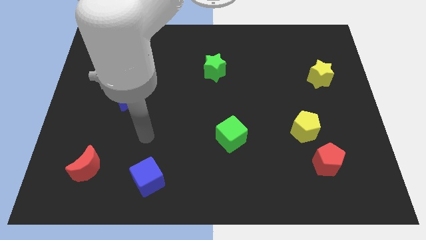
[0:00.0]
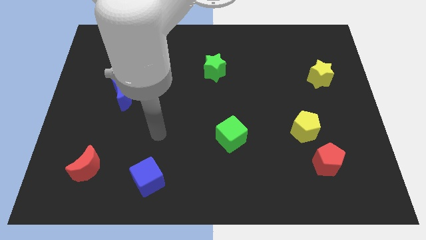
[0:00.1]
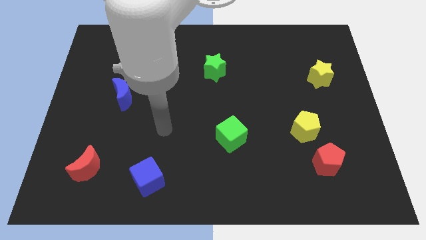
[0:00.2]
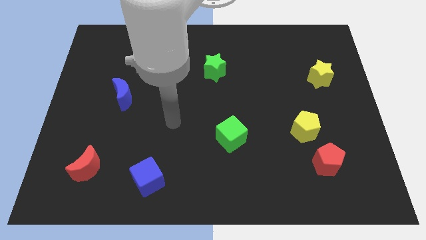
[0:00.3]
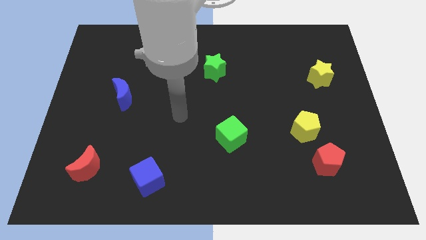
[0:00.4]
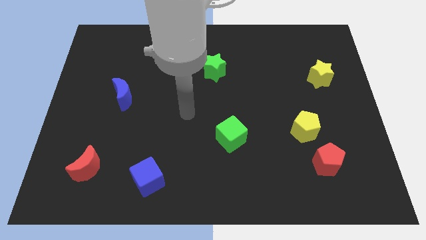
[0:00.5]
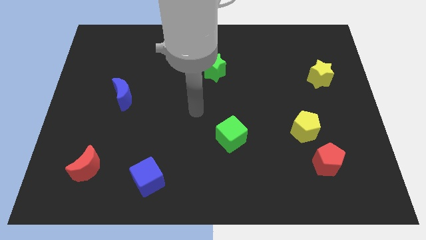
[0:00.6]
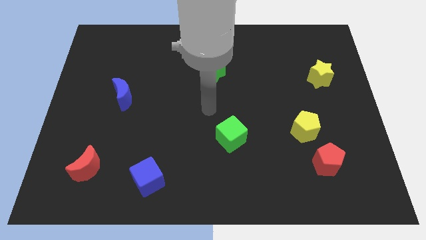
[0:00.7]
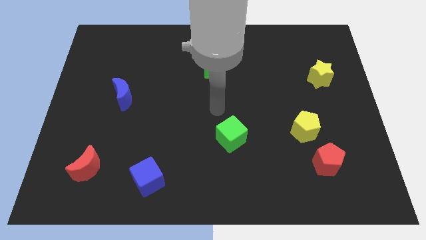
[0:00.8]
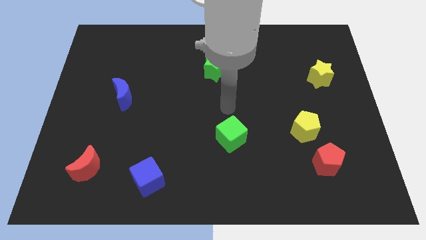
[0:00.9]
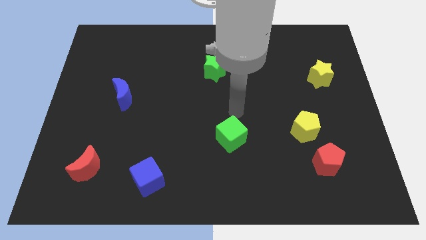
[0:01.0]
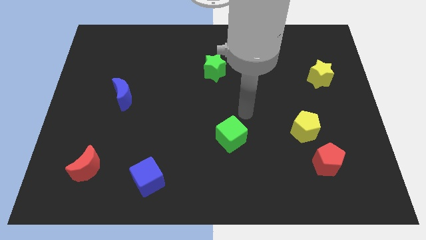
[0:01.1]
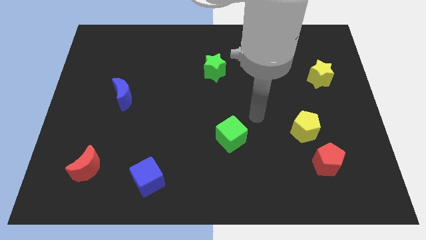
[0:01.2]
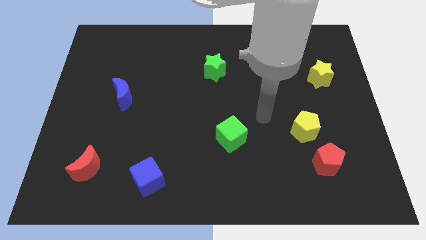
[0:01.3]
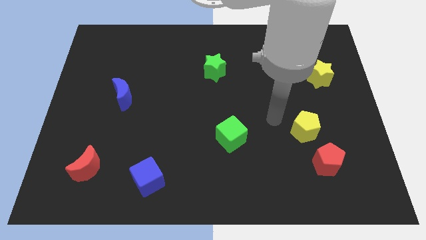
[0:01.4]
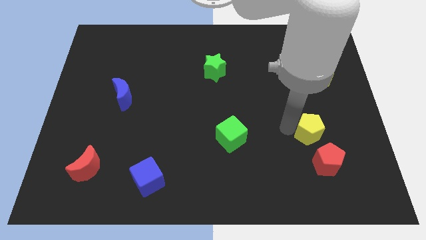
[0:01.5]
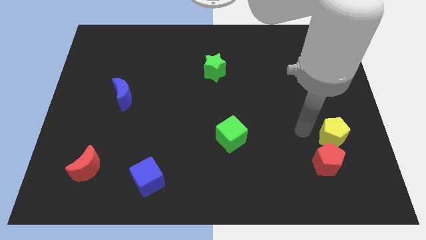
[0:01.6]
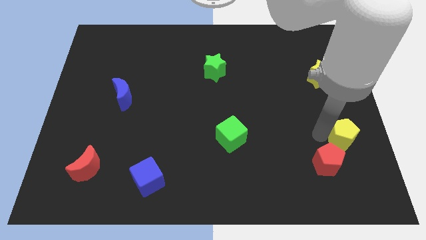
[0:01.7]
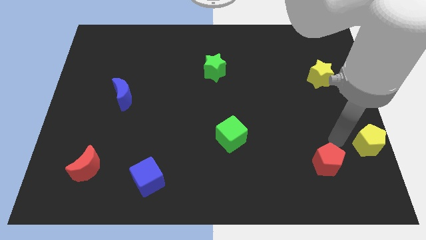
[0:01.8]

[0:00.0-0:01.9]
pull the red pentagon apart from the yellow pentagon

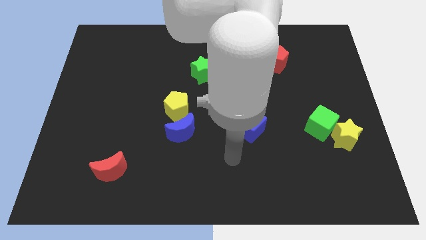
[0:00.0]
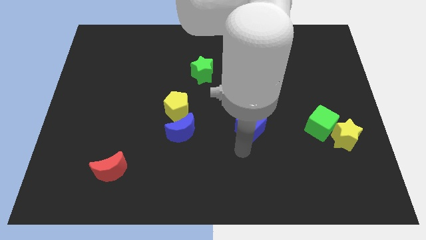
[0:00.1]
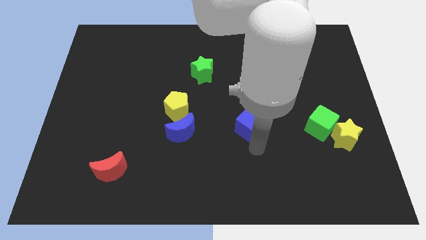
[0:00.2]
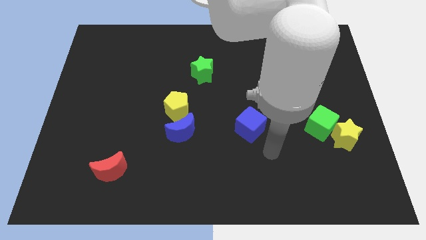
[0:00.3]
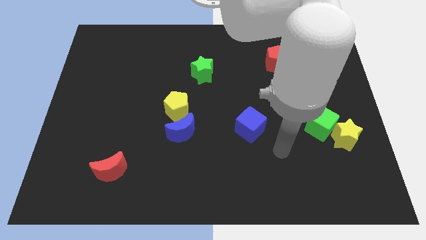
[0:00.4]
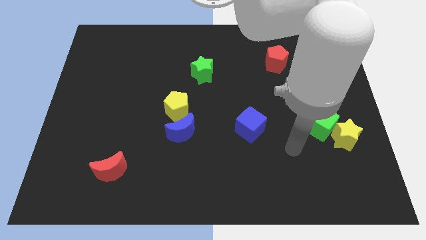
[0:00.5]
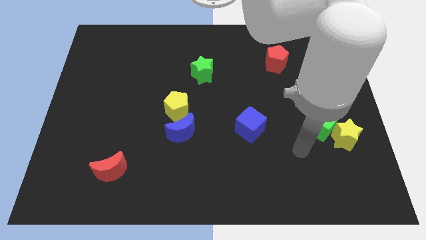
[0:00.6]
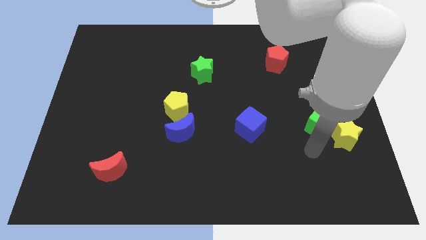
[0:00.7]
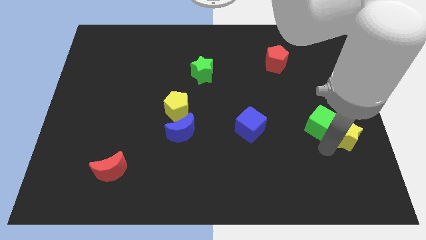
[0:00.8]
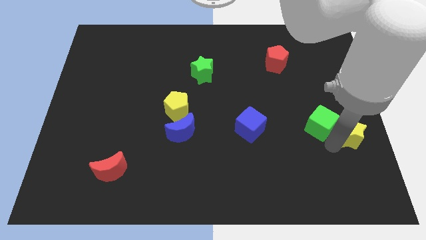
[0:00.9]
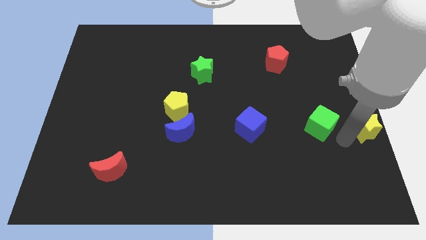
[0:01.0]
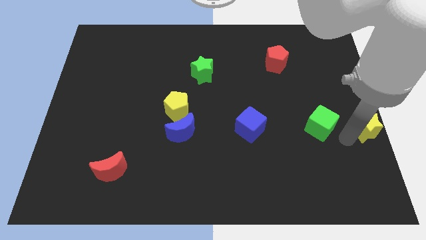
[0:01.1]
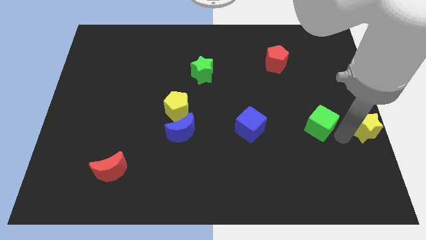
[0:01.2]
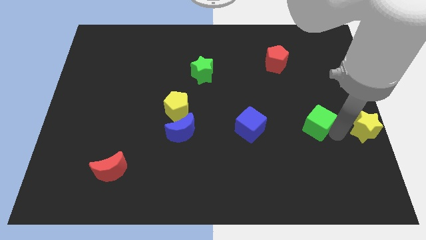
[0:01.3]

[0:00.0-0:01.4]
pull the green cube apart from the yellow star

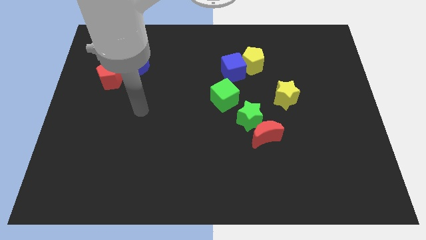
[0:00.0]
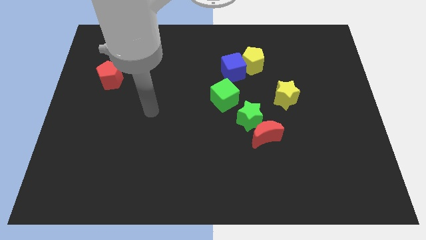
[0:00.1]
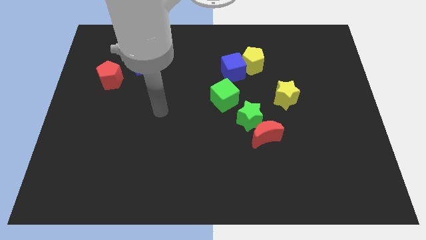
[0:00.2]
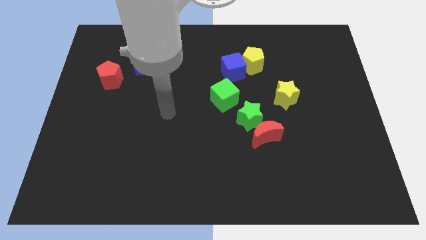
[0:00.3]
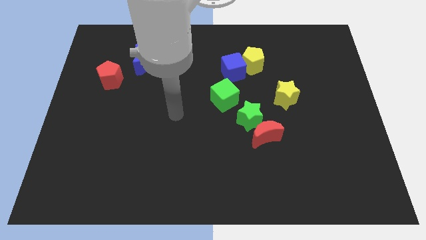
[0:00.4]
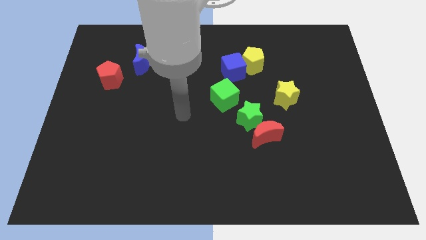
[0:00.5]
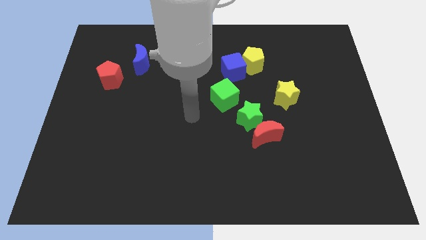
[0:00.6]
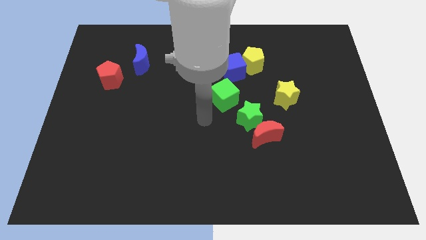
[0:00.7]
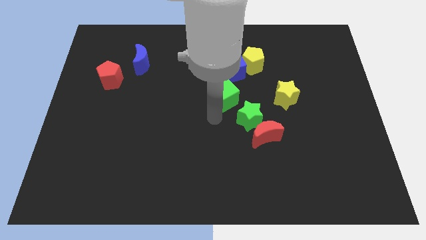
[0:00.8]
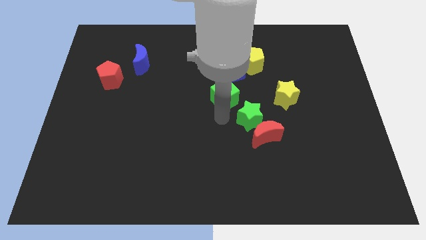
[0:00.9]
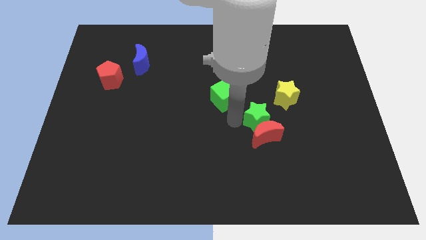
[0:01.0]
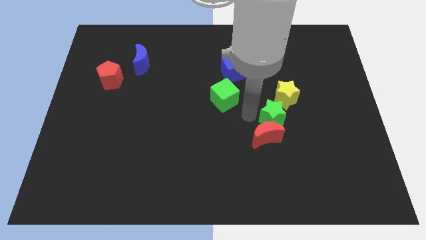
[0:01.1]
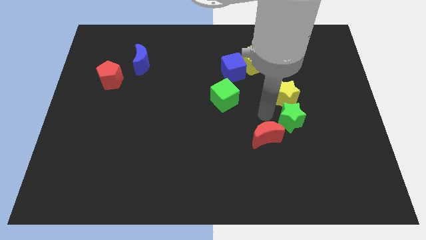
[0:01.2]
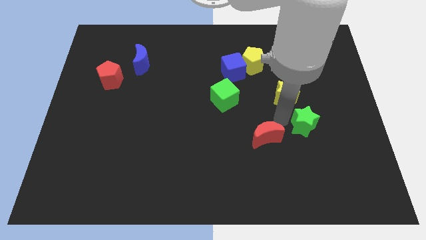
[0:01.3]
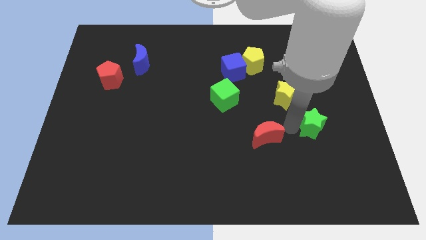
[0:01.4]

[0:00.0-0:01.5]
separate the red moon from the green star

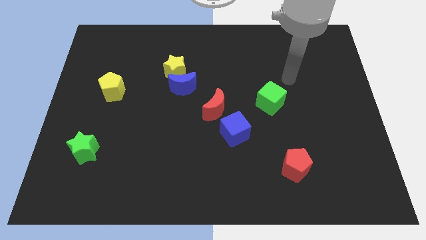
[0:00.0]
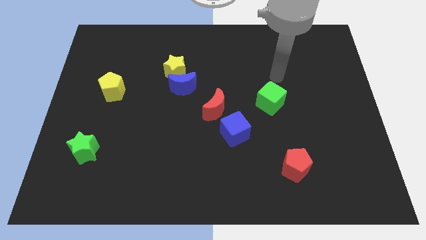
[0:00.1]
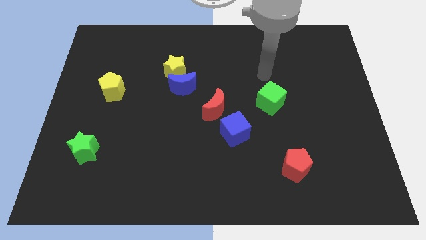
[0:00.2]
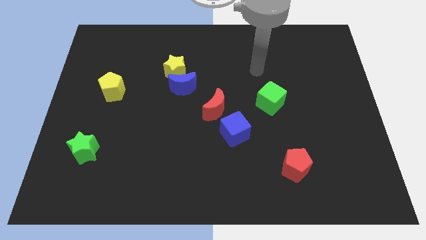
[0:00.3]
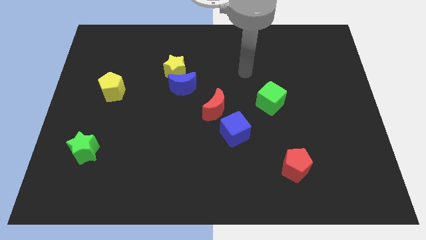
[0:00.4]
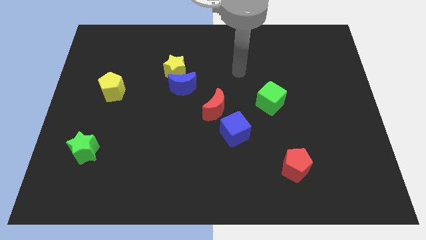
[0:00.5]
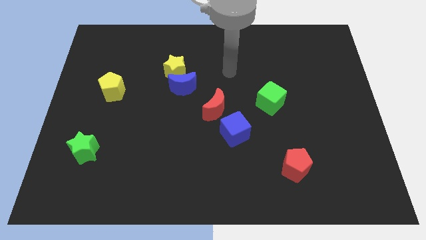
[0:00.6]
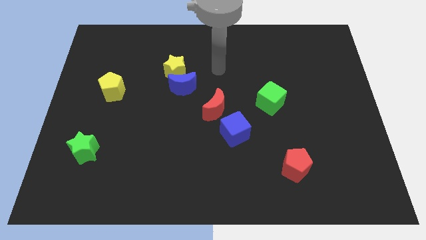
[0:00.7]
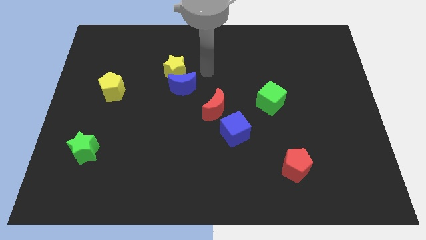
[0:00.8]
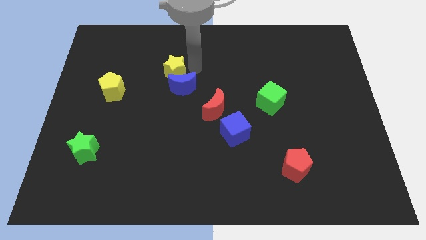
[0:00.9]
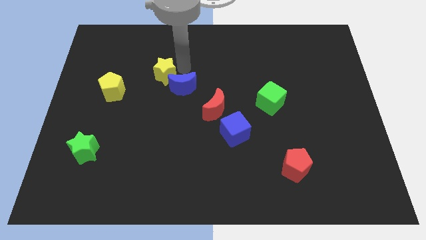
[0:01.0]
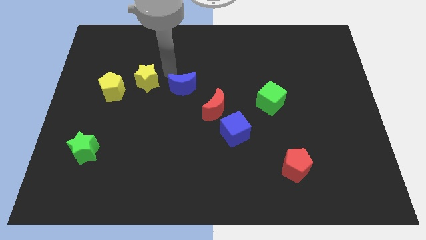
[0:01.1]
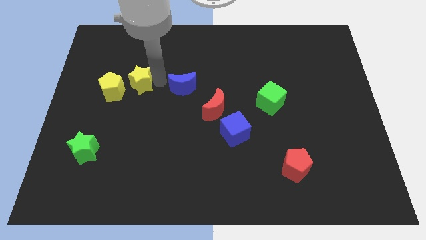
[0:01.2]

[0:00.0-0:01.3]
separate the blue moon from the yellow star

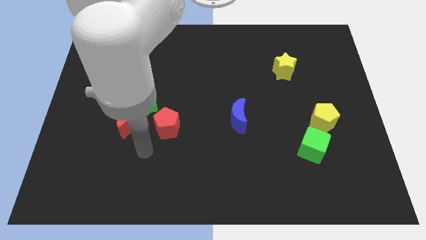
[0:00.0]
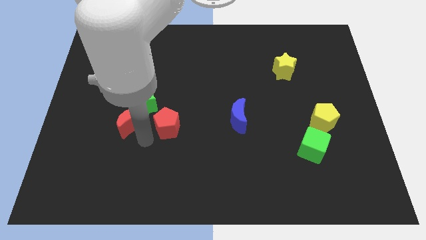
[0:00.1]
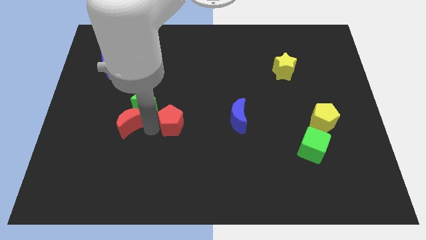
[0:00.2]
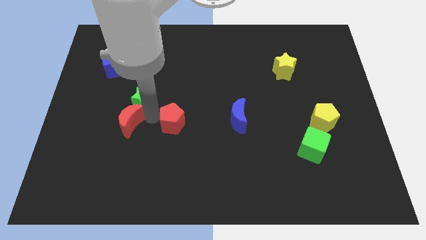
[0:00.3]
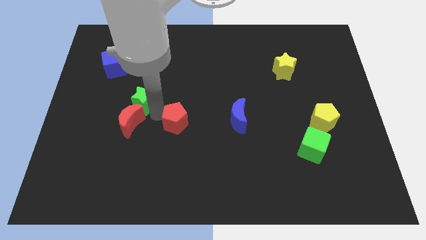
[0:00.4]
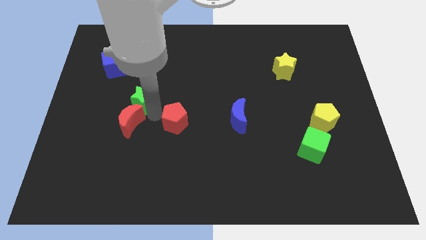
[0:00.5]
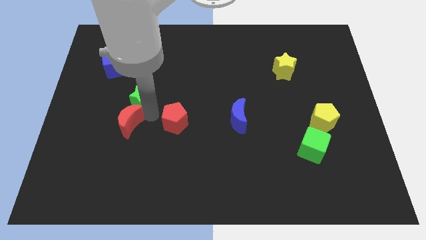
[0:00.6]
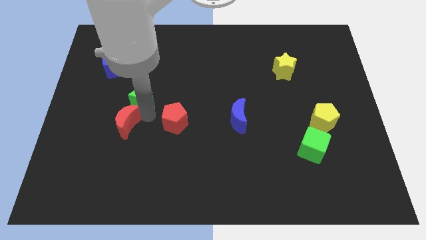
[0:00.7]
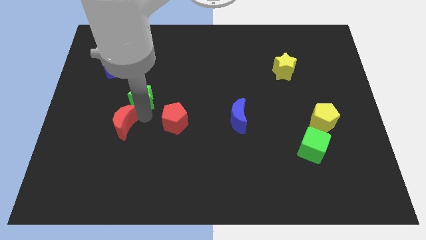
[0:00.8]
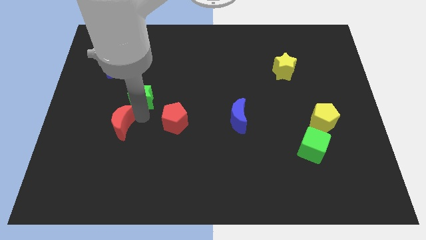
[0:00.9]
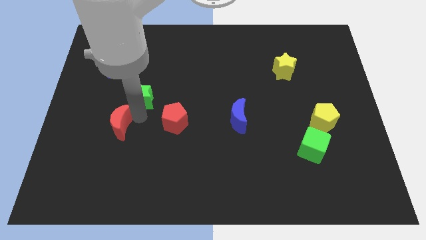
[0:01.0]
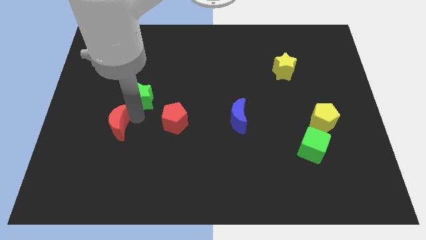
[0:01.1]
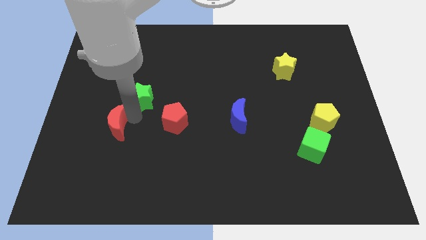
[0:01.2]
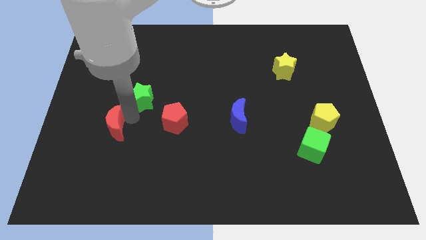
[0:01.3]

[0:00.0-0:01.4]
move the red moon away from the green star and red pentagon

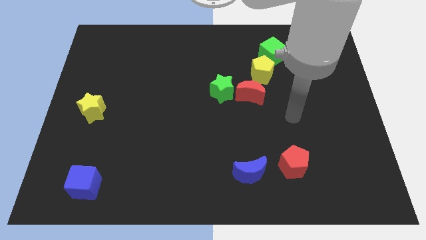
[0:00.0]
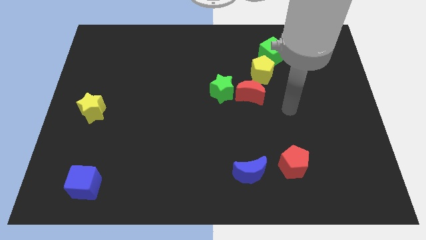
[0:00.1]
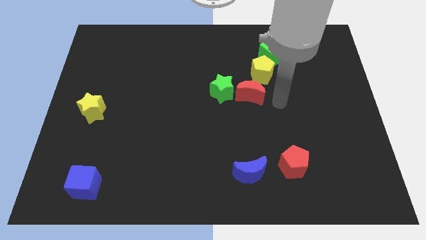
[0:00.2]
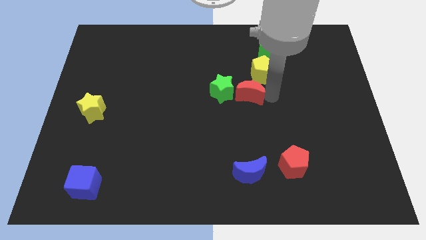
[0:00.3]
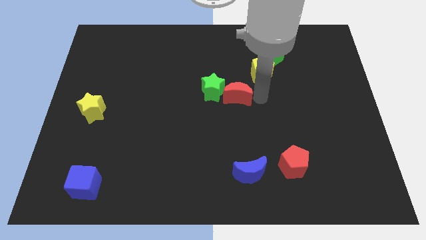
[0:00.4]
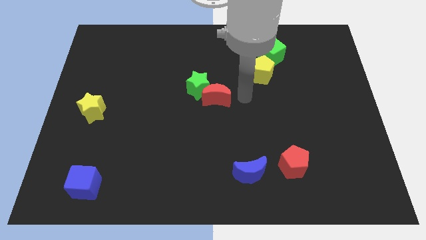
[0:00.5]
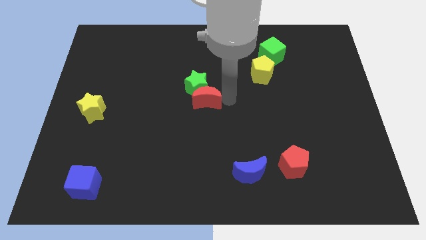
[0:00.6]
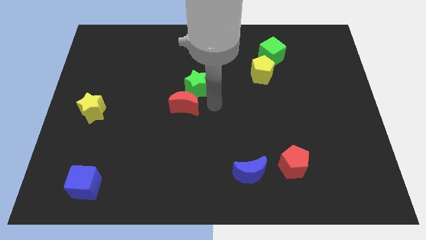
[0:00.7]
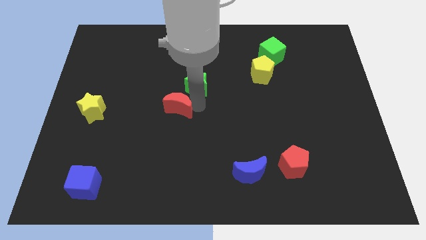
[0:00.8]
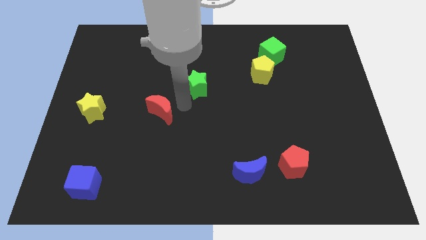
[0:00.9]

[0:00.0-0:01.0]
move the green star away from the red moon

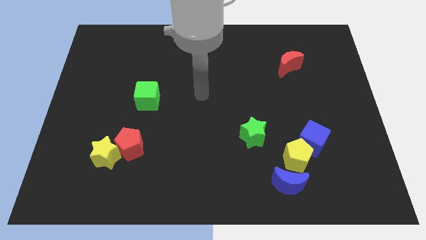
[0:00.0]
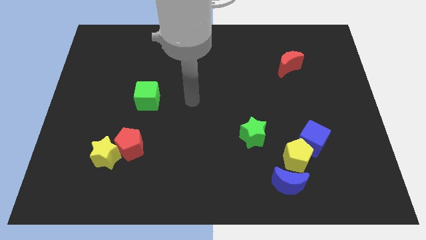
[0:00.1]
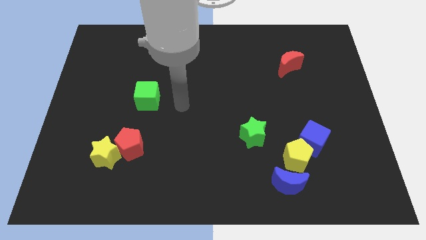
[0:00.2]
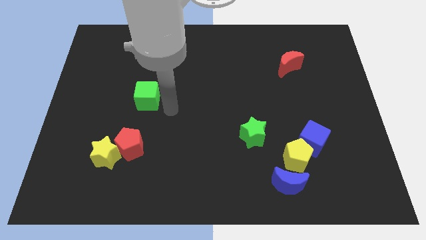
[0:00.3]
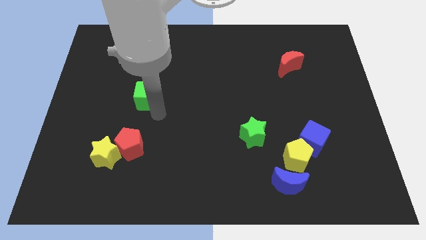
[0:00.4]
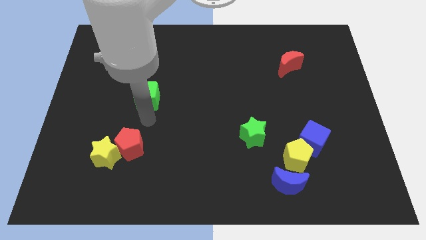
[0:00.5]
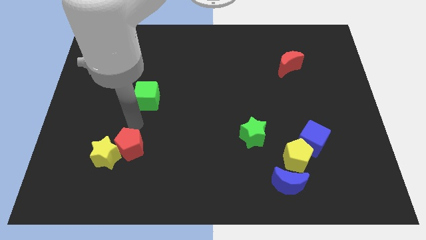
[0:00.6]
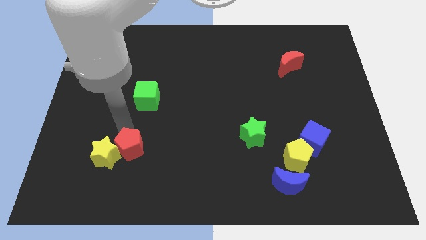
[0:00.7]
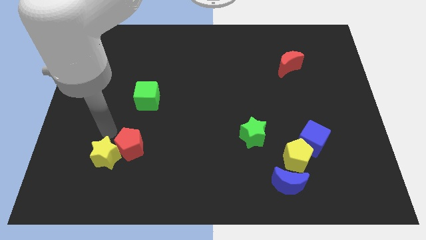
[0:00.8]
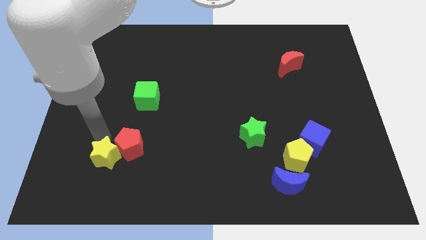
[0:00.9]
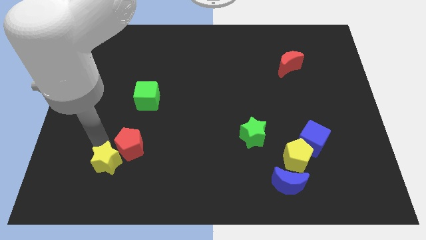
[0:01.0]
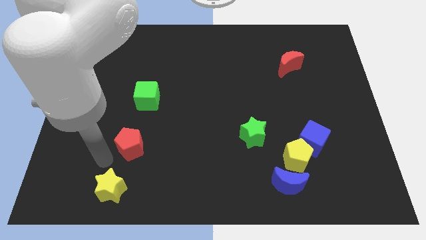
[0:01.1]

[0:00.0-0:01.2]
move the red pentagon away from the yellow star
